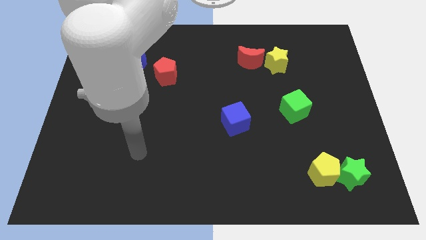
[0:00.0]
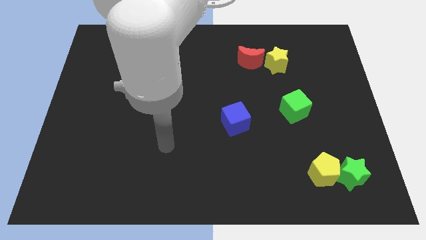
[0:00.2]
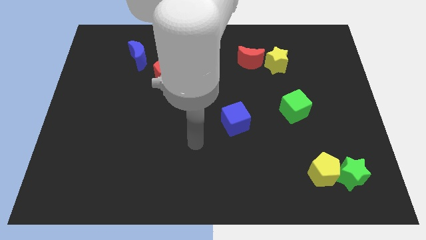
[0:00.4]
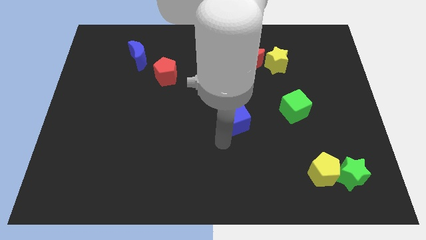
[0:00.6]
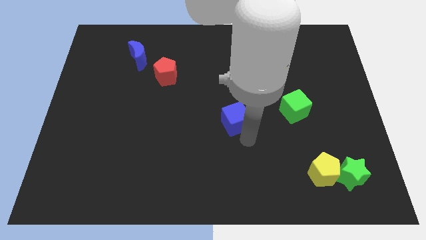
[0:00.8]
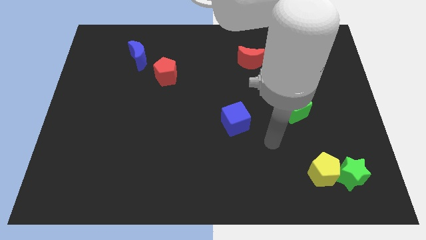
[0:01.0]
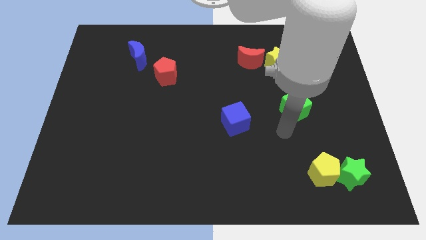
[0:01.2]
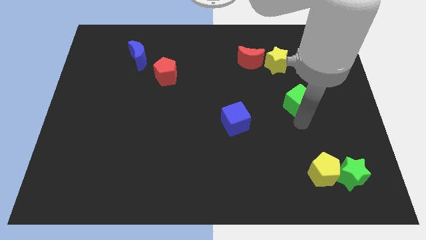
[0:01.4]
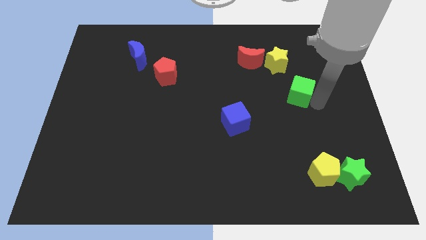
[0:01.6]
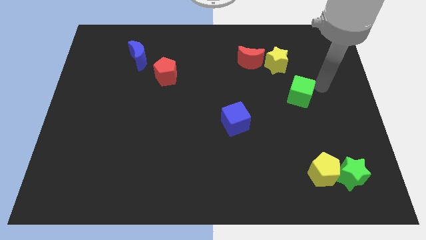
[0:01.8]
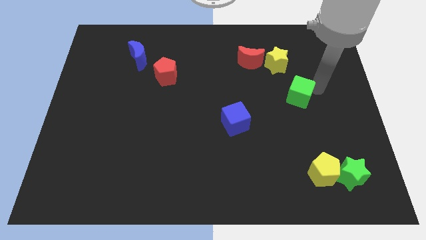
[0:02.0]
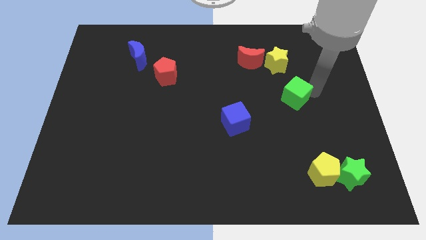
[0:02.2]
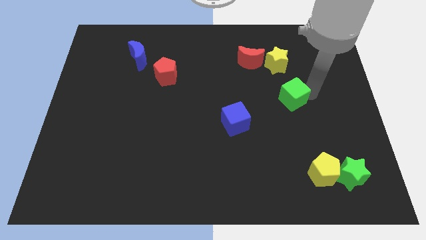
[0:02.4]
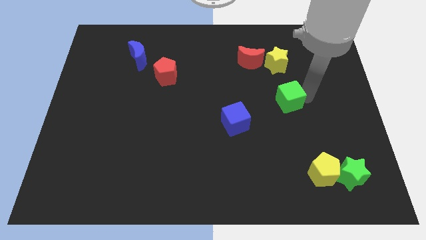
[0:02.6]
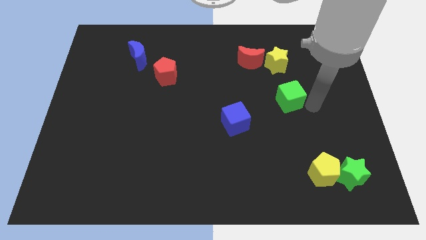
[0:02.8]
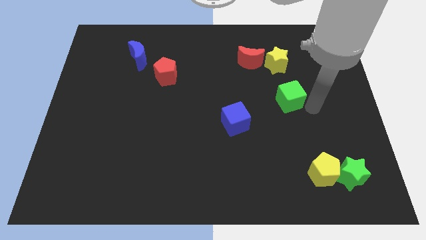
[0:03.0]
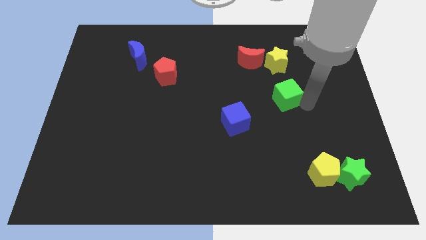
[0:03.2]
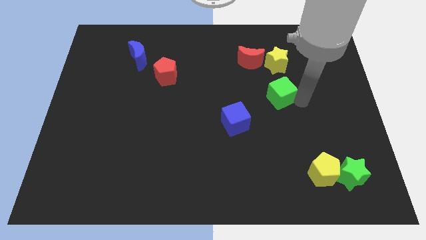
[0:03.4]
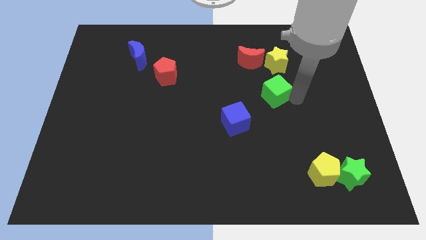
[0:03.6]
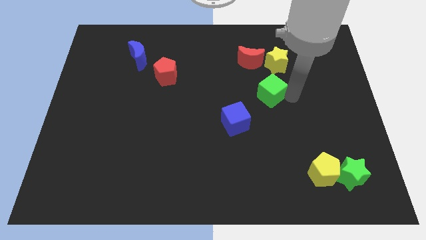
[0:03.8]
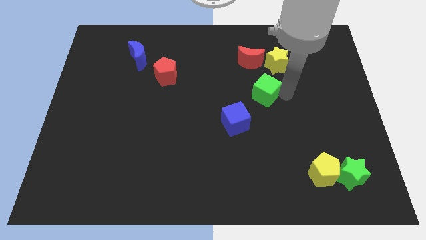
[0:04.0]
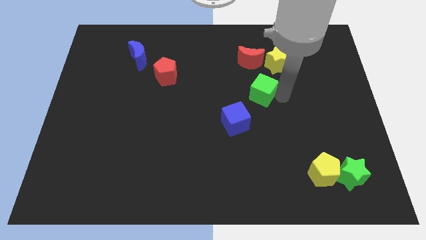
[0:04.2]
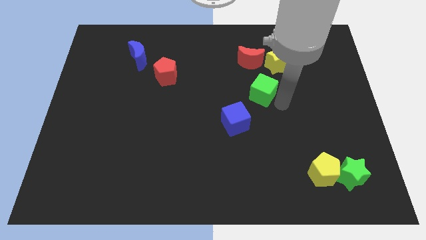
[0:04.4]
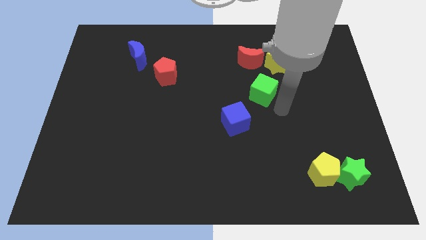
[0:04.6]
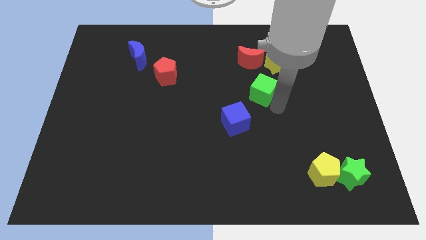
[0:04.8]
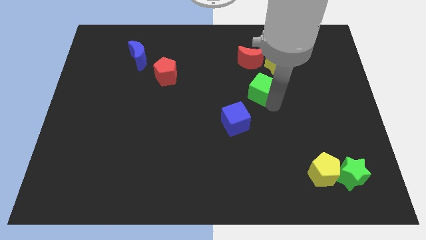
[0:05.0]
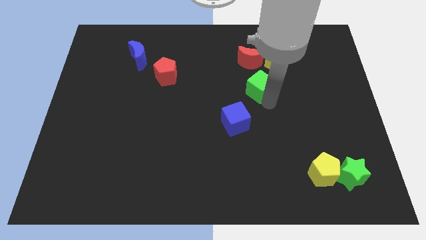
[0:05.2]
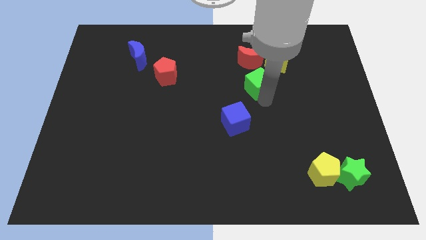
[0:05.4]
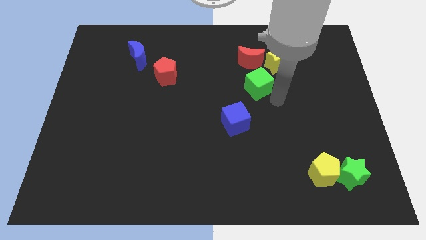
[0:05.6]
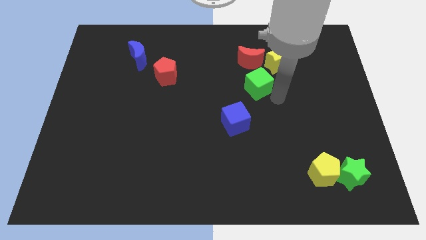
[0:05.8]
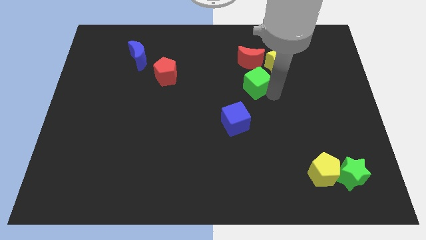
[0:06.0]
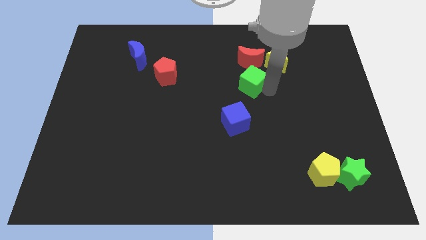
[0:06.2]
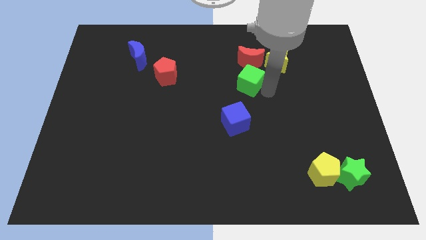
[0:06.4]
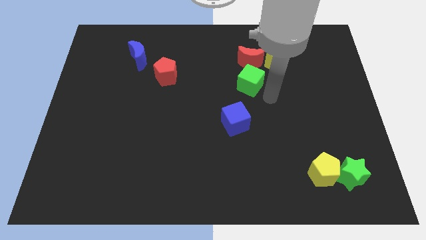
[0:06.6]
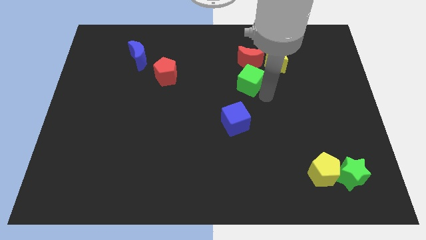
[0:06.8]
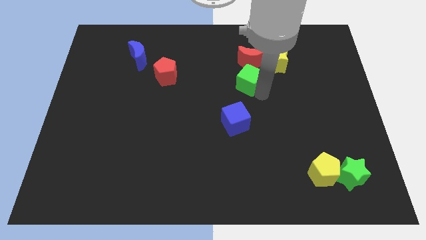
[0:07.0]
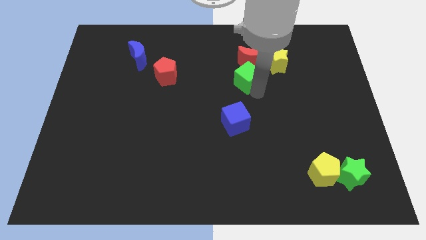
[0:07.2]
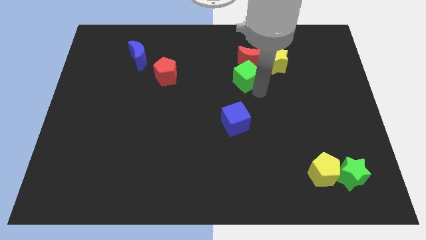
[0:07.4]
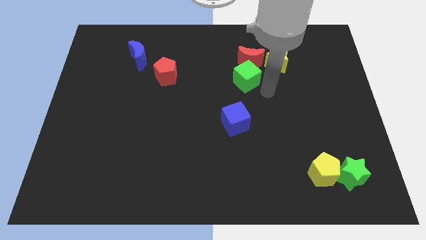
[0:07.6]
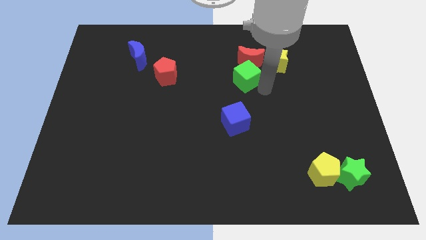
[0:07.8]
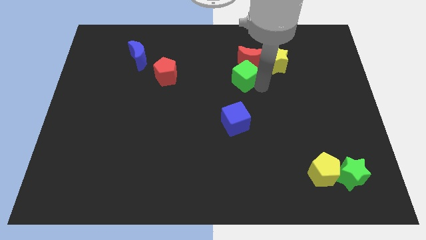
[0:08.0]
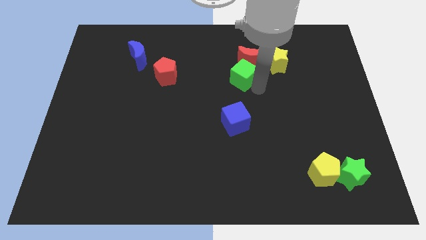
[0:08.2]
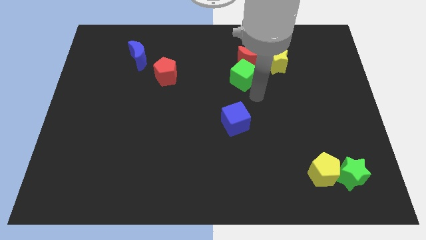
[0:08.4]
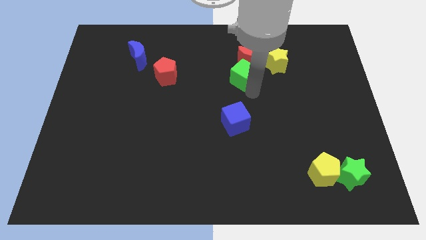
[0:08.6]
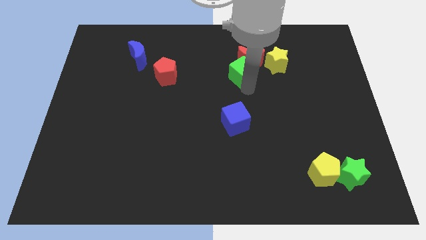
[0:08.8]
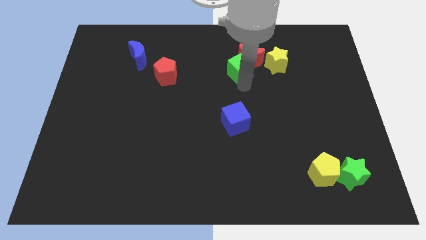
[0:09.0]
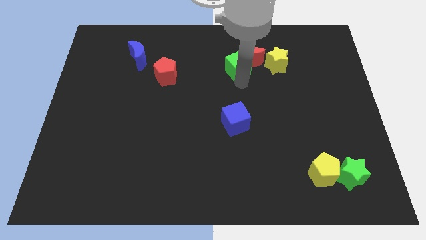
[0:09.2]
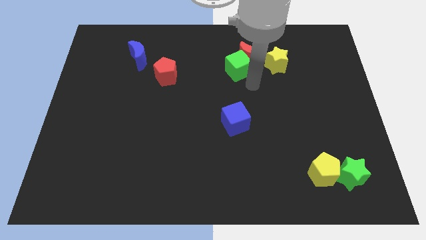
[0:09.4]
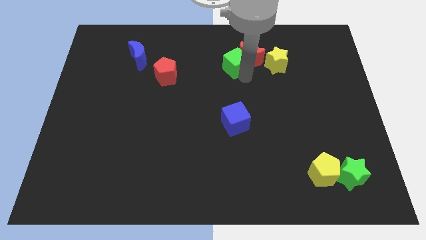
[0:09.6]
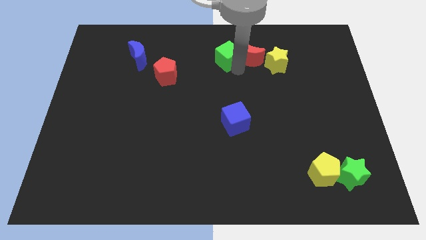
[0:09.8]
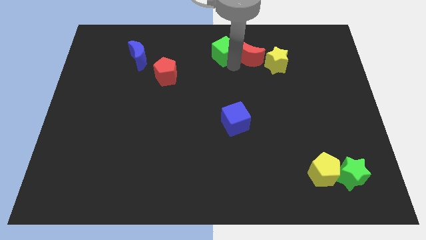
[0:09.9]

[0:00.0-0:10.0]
move the green cube to the top side

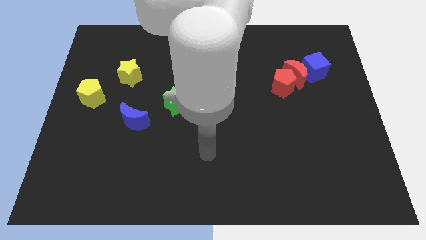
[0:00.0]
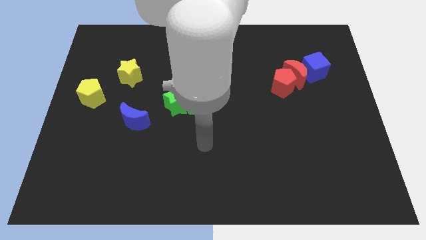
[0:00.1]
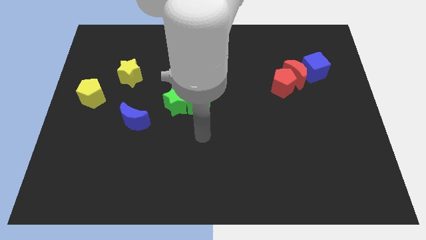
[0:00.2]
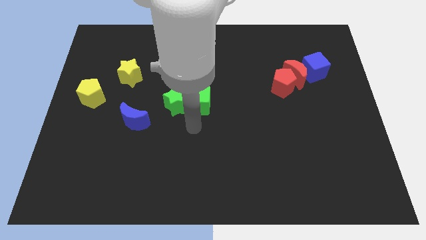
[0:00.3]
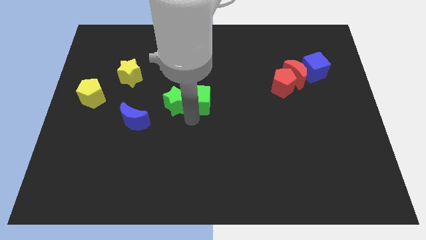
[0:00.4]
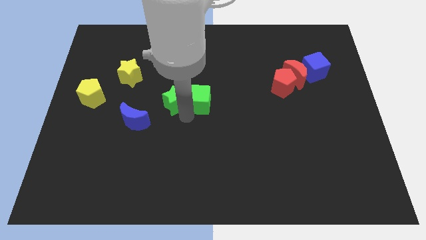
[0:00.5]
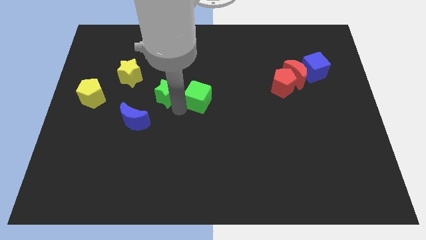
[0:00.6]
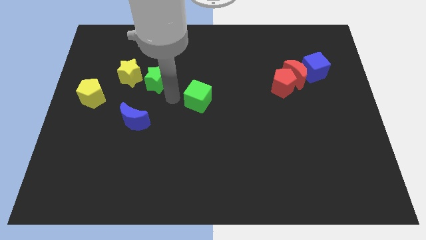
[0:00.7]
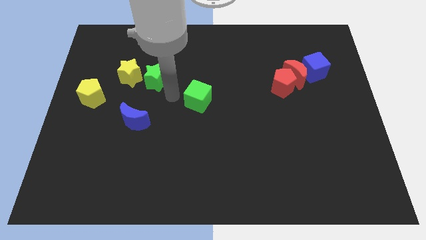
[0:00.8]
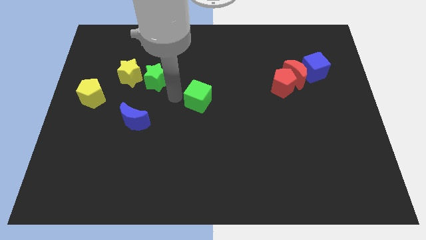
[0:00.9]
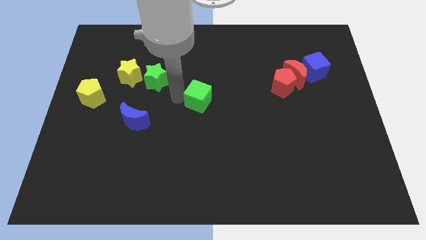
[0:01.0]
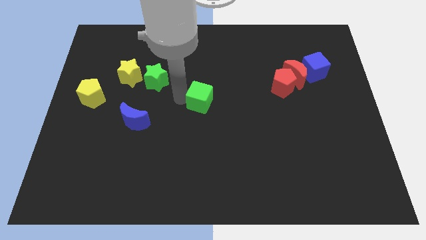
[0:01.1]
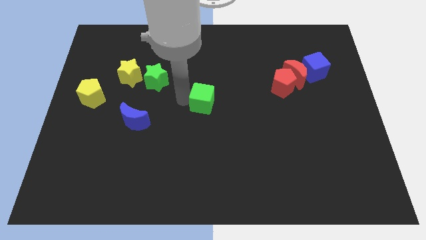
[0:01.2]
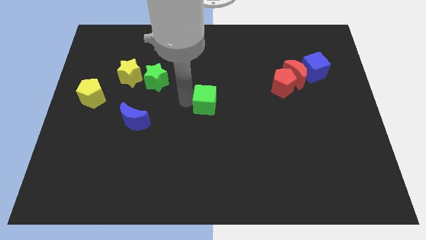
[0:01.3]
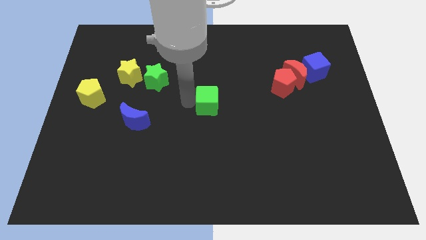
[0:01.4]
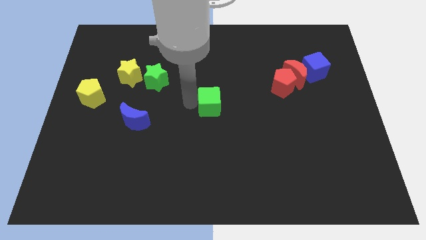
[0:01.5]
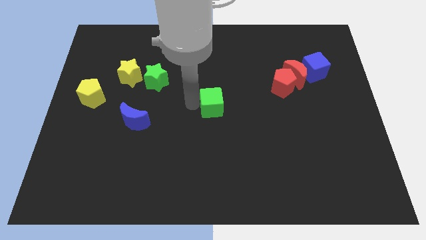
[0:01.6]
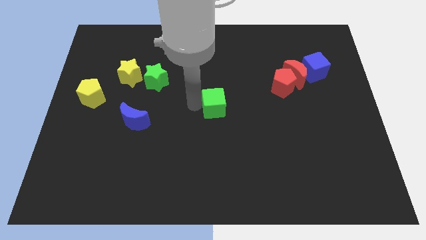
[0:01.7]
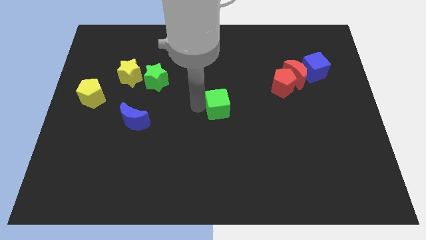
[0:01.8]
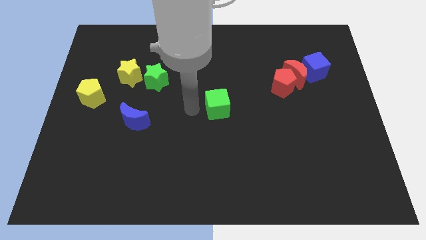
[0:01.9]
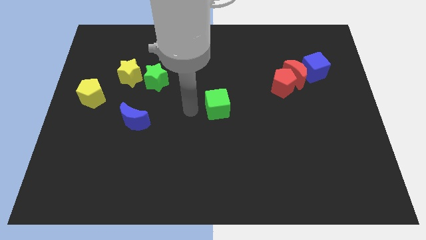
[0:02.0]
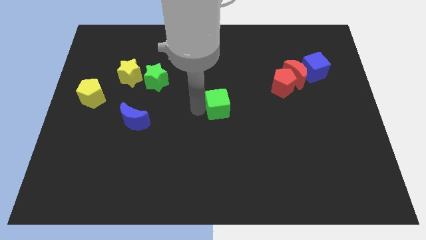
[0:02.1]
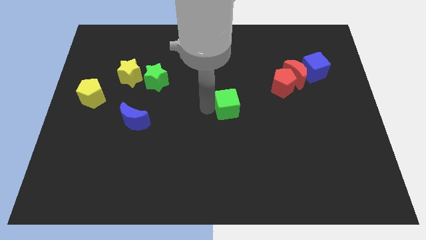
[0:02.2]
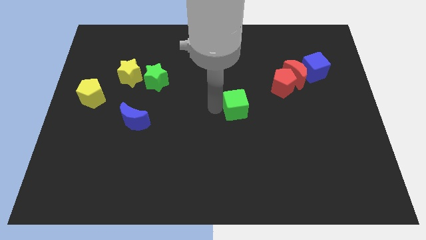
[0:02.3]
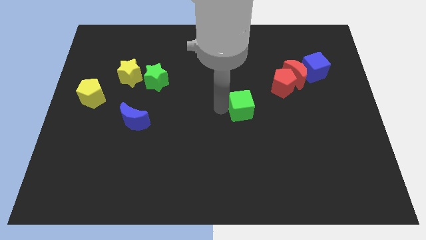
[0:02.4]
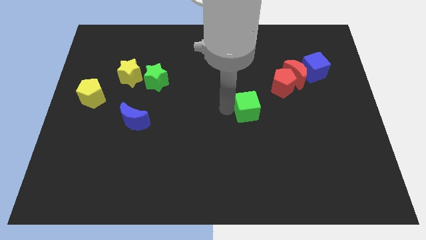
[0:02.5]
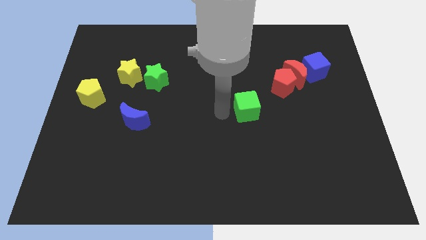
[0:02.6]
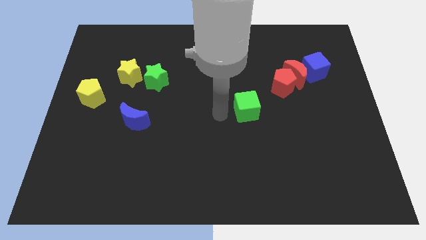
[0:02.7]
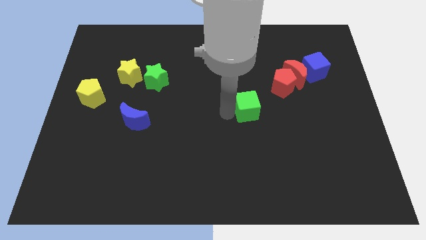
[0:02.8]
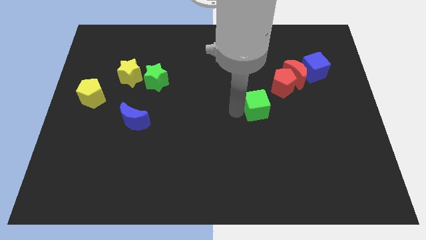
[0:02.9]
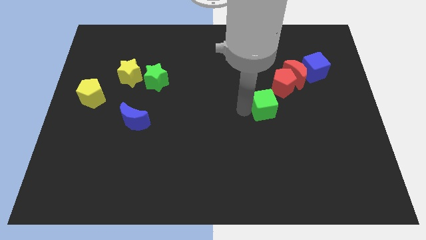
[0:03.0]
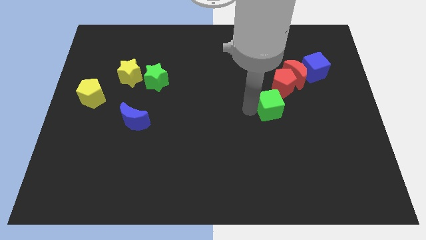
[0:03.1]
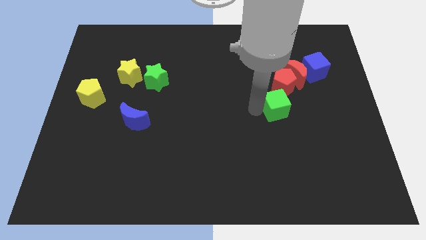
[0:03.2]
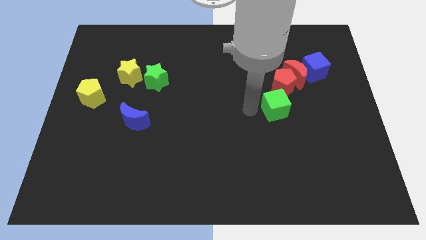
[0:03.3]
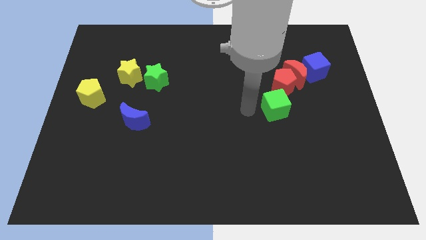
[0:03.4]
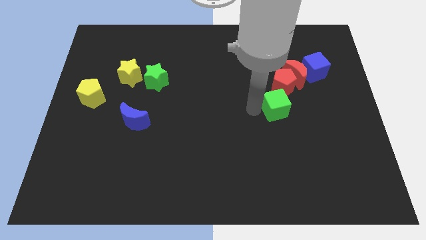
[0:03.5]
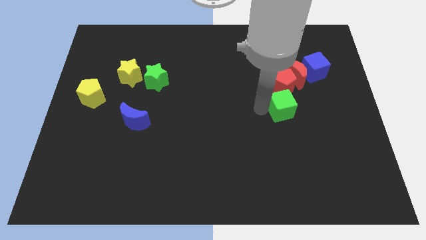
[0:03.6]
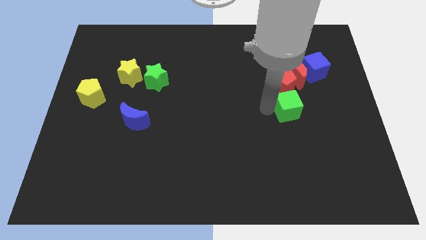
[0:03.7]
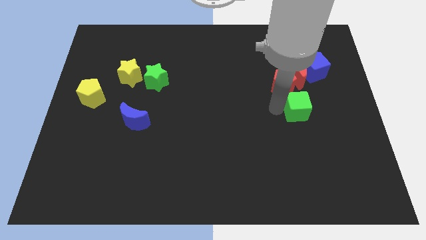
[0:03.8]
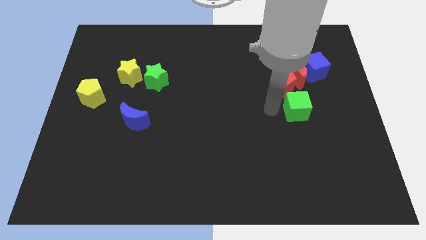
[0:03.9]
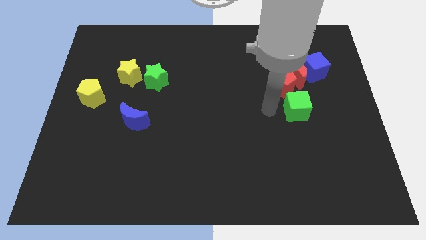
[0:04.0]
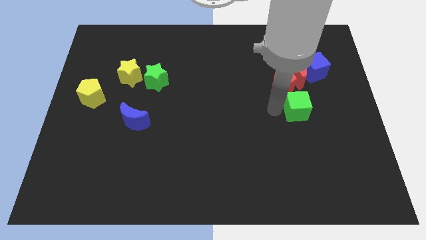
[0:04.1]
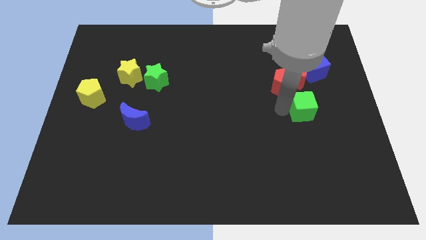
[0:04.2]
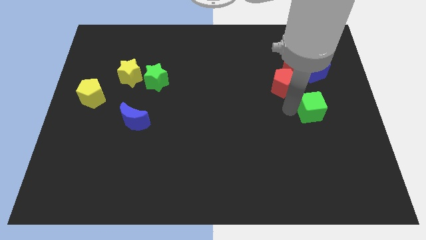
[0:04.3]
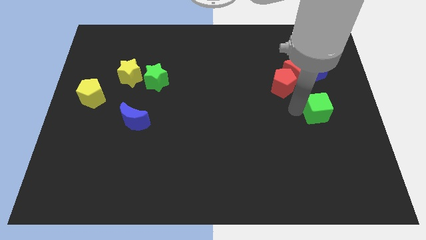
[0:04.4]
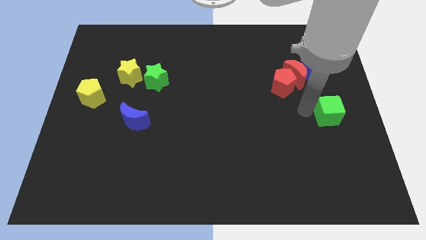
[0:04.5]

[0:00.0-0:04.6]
put the green cube to the center right
